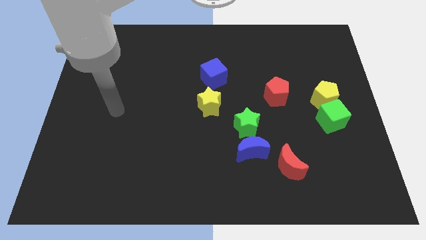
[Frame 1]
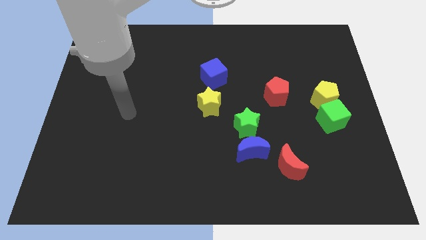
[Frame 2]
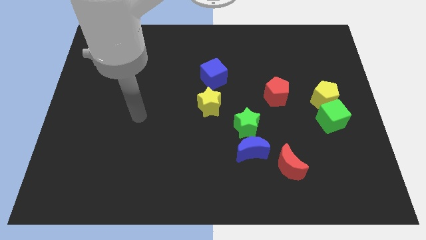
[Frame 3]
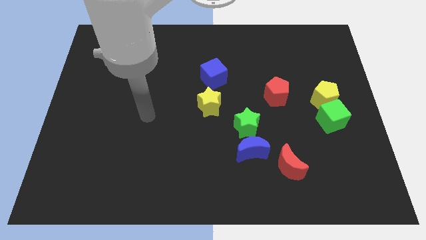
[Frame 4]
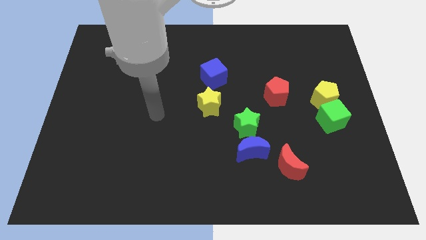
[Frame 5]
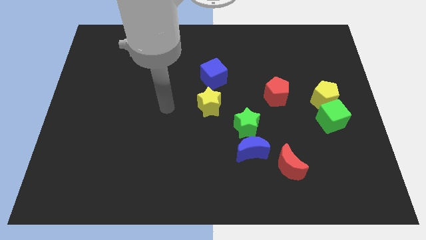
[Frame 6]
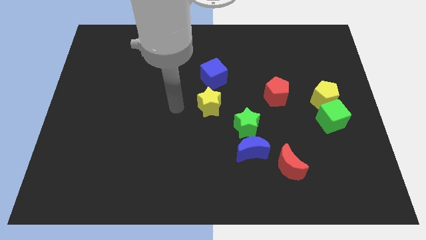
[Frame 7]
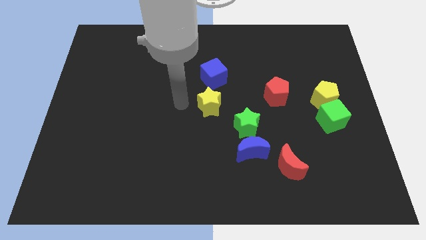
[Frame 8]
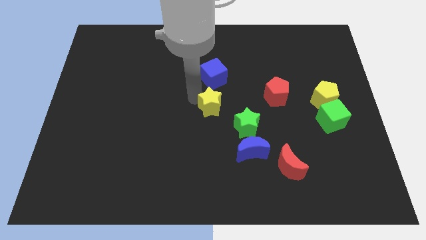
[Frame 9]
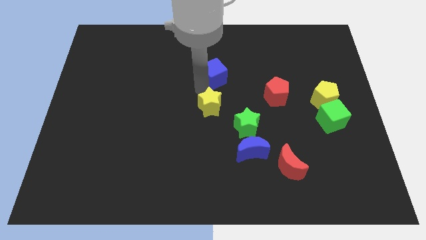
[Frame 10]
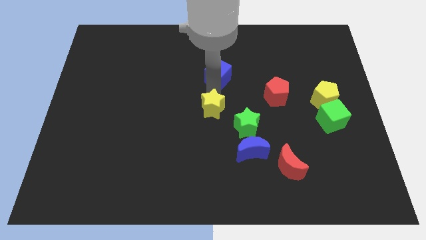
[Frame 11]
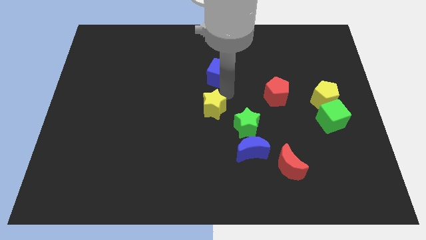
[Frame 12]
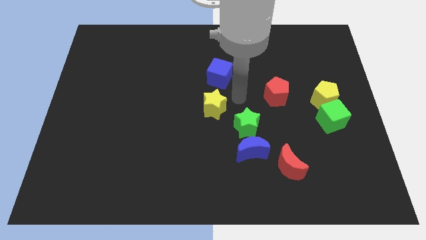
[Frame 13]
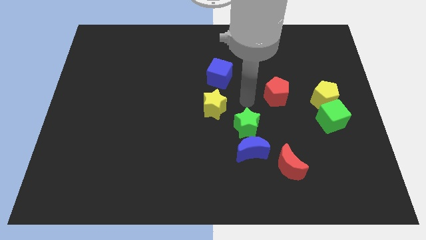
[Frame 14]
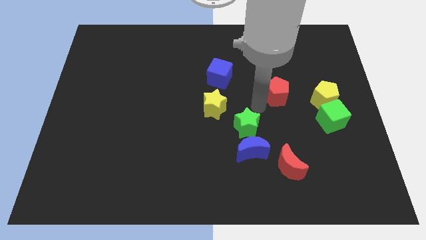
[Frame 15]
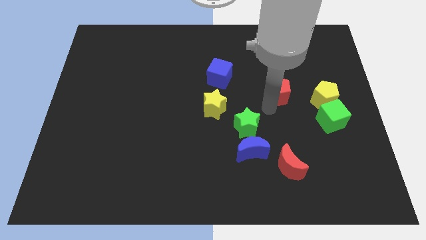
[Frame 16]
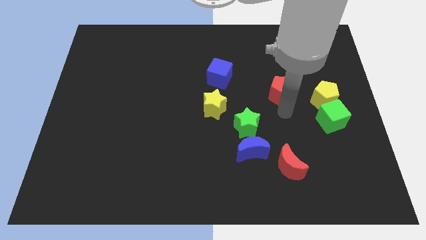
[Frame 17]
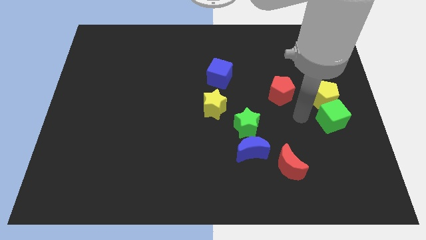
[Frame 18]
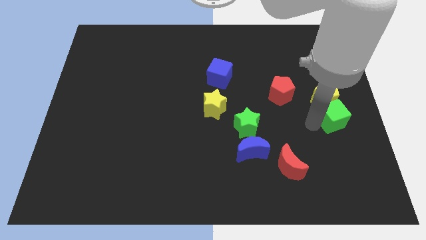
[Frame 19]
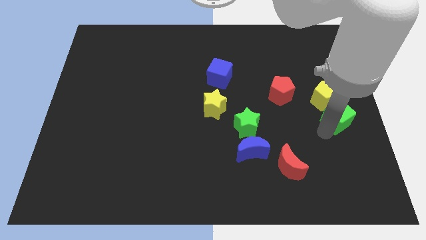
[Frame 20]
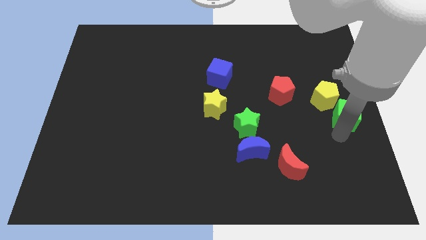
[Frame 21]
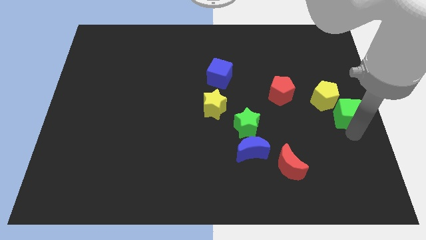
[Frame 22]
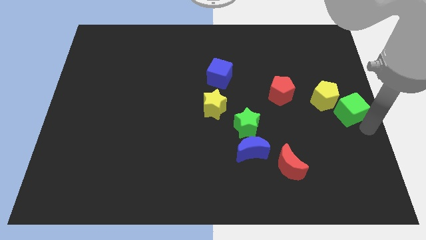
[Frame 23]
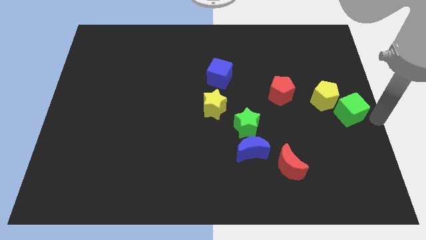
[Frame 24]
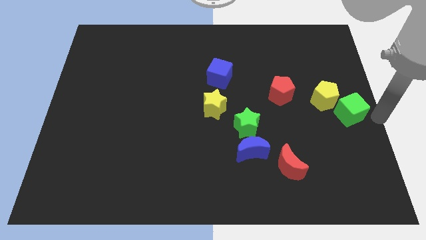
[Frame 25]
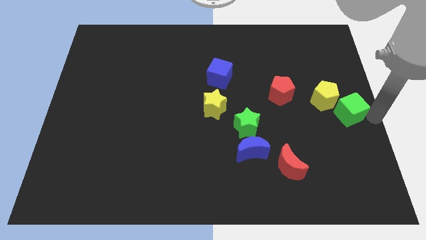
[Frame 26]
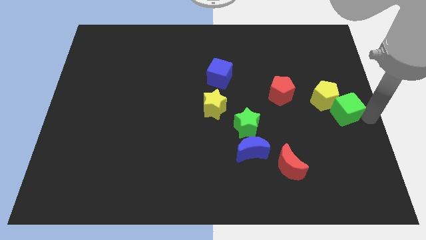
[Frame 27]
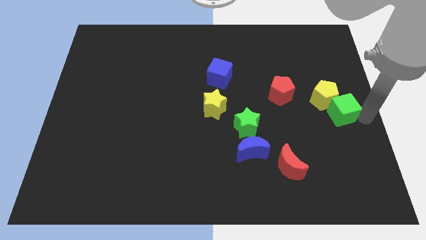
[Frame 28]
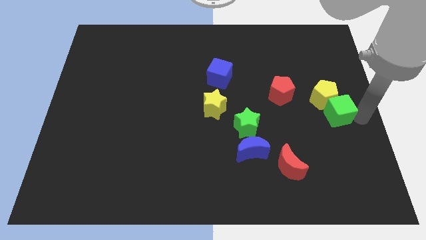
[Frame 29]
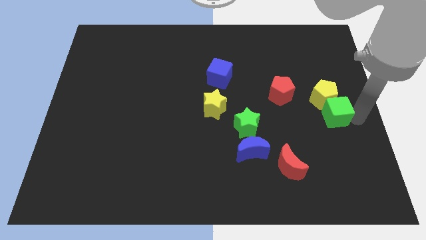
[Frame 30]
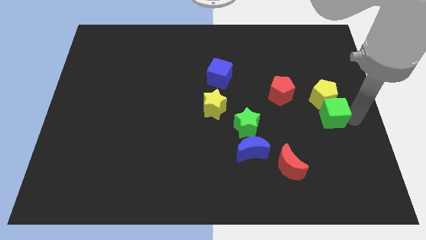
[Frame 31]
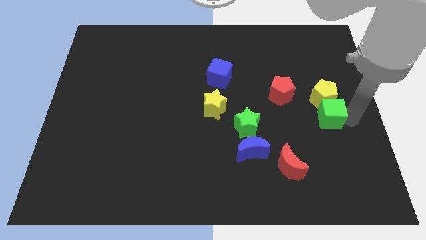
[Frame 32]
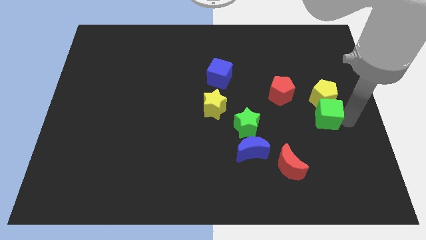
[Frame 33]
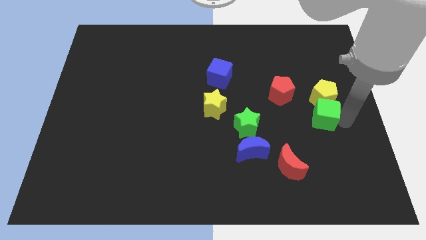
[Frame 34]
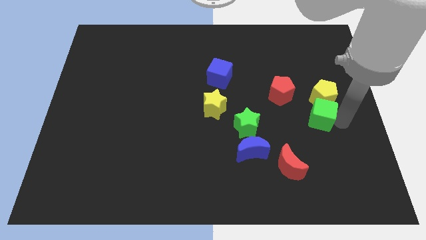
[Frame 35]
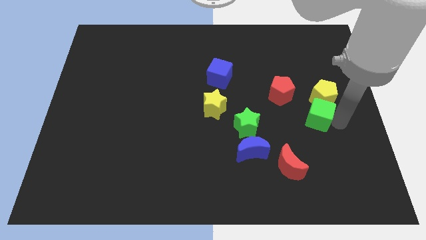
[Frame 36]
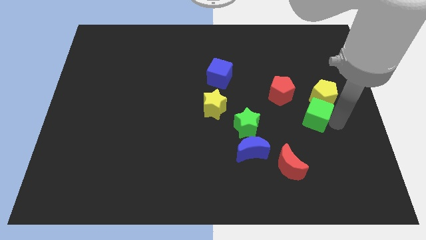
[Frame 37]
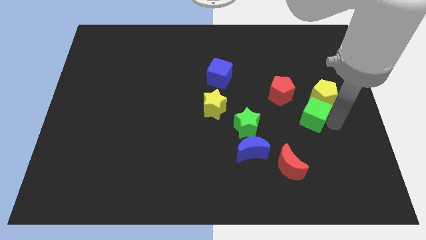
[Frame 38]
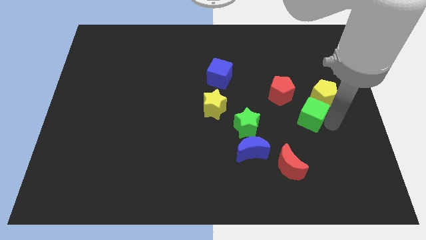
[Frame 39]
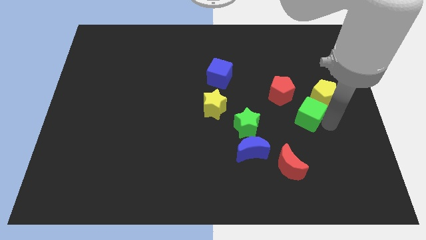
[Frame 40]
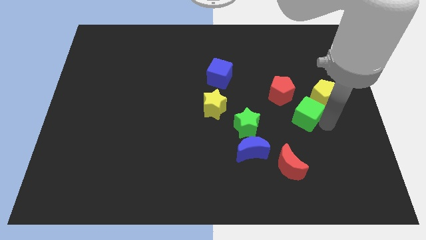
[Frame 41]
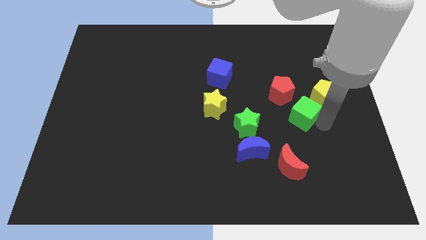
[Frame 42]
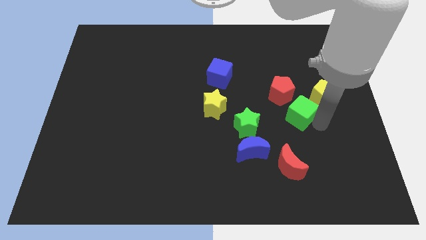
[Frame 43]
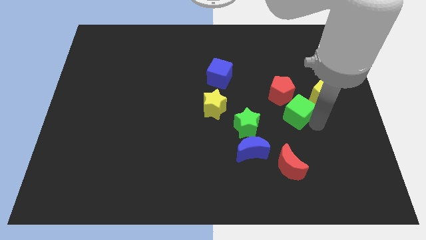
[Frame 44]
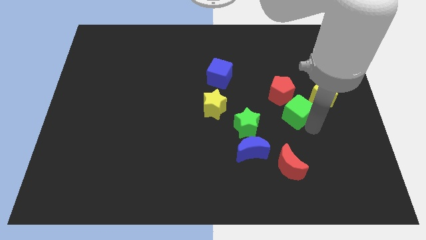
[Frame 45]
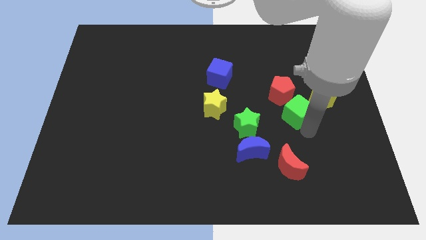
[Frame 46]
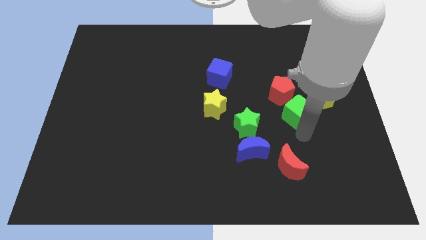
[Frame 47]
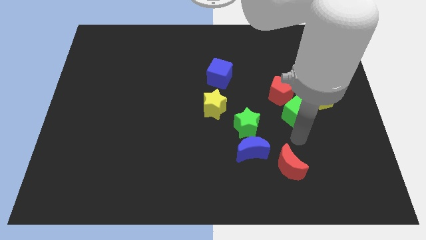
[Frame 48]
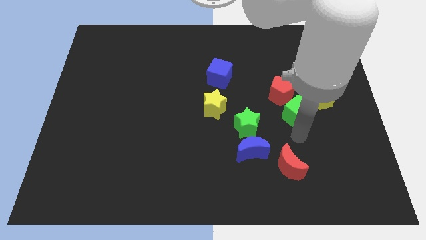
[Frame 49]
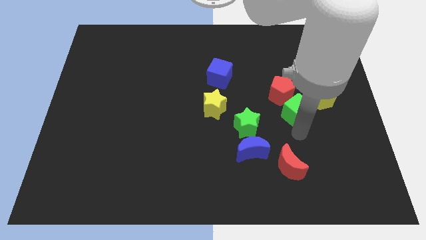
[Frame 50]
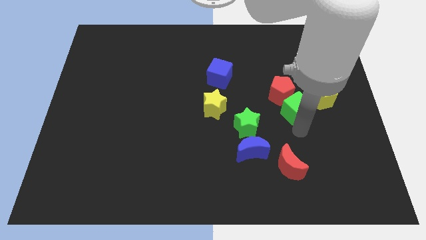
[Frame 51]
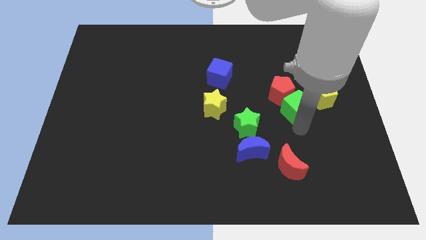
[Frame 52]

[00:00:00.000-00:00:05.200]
slide the green cube upwards and to the left diagonally slightly

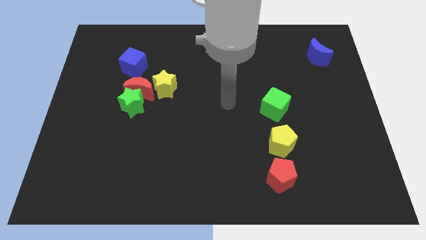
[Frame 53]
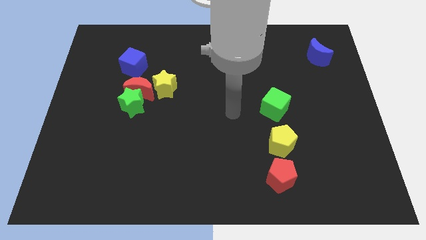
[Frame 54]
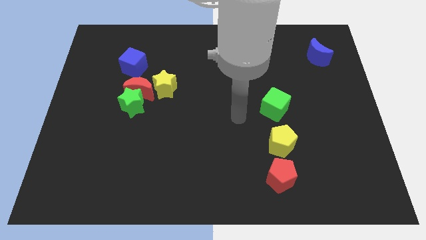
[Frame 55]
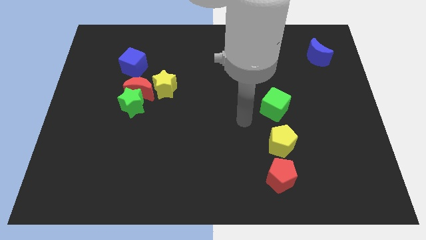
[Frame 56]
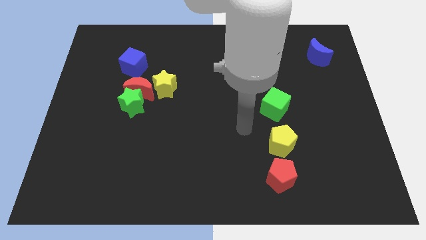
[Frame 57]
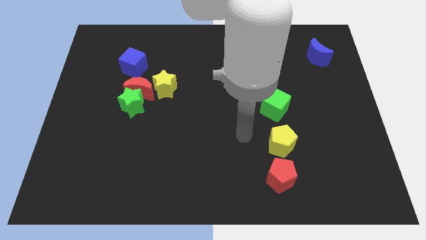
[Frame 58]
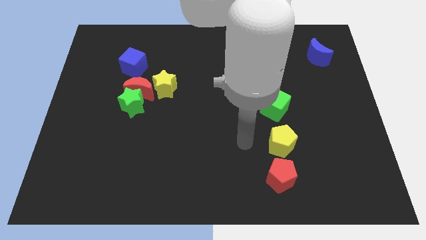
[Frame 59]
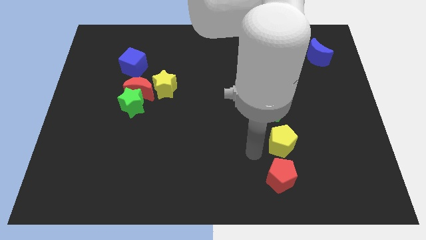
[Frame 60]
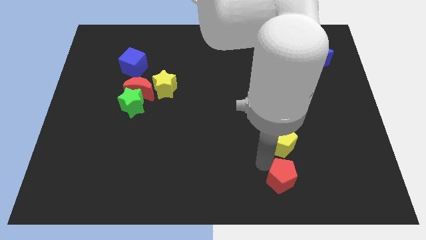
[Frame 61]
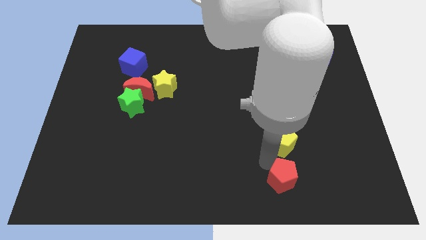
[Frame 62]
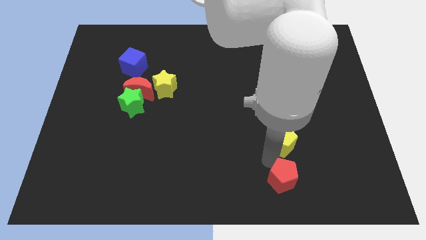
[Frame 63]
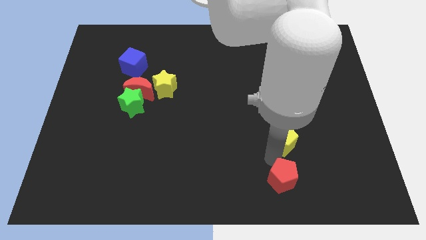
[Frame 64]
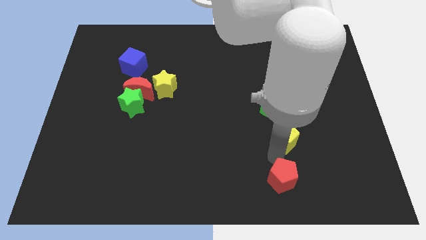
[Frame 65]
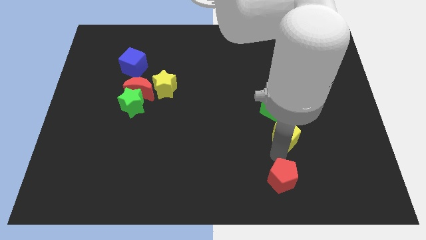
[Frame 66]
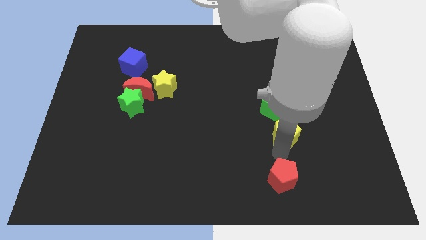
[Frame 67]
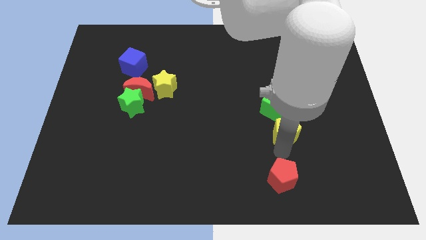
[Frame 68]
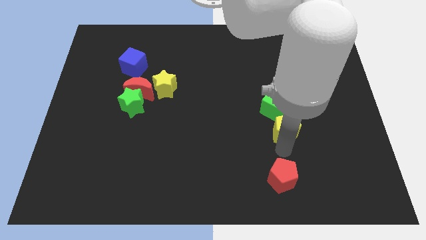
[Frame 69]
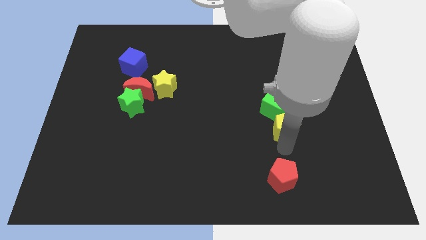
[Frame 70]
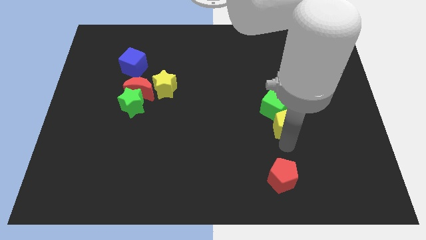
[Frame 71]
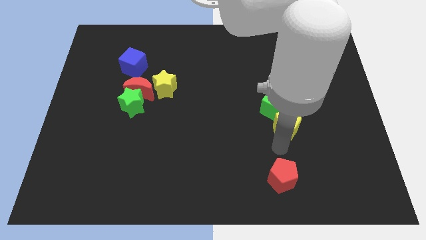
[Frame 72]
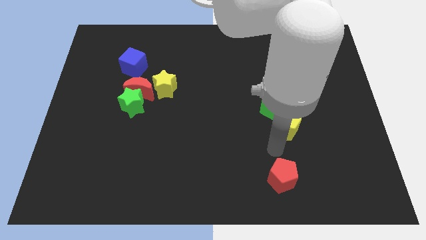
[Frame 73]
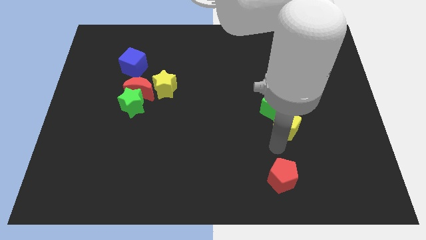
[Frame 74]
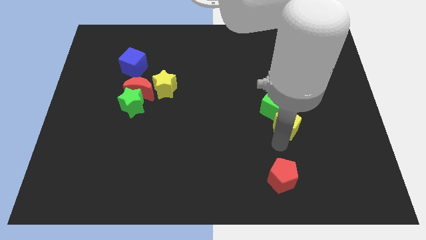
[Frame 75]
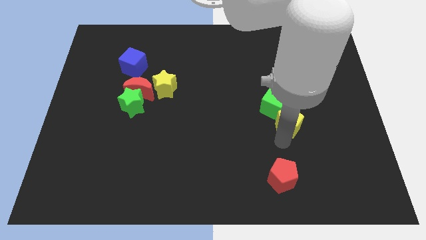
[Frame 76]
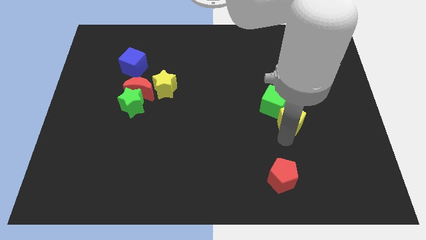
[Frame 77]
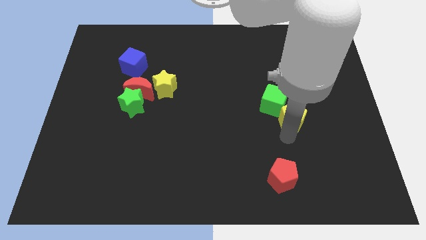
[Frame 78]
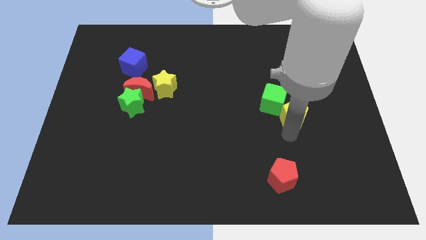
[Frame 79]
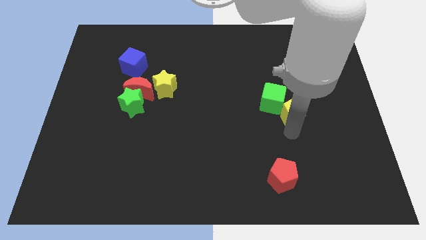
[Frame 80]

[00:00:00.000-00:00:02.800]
slide the yellow pentagon a bit up

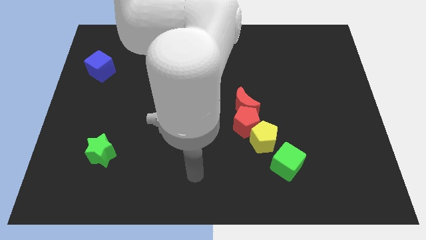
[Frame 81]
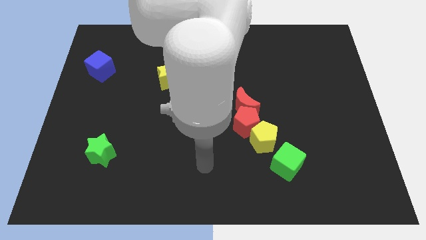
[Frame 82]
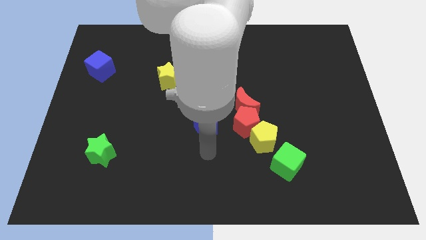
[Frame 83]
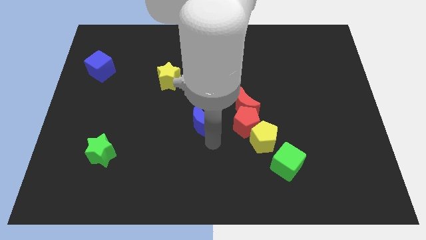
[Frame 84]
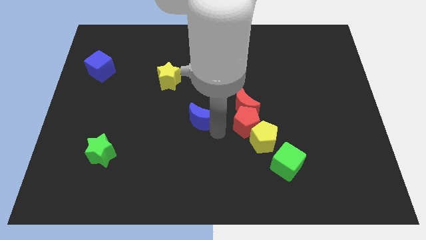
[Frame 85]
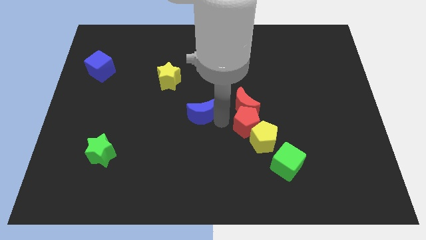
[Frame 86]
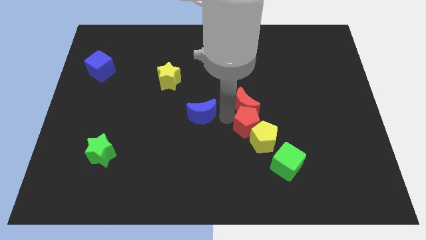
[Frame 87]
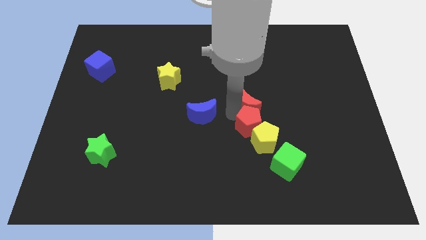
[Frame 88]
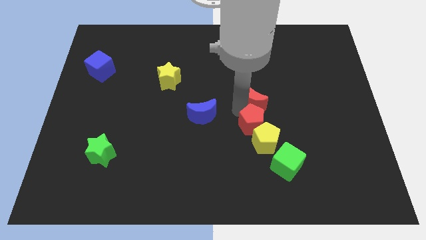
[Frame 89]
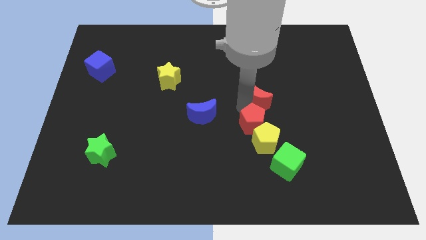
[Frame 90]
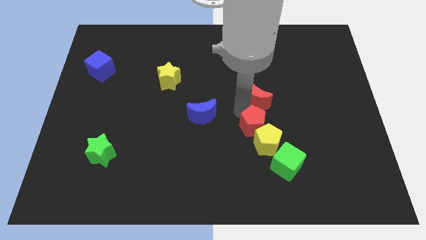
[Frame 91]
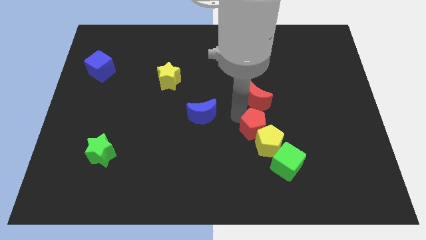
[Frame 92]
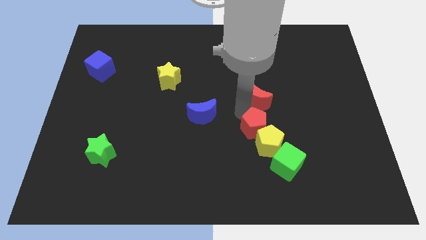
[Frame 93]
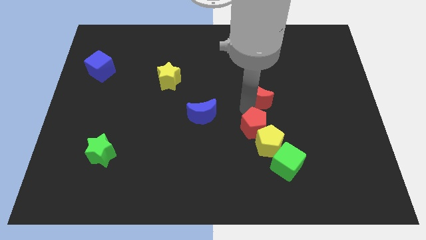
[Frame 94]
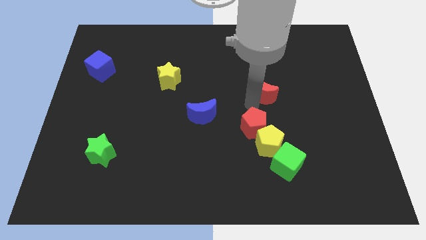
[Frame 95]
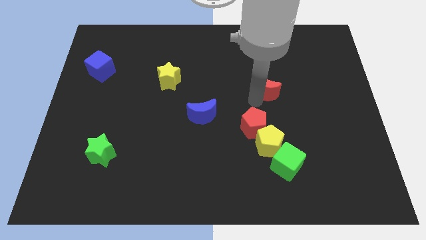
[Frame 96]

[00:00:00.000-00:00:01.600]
slightly push the red moon diagonally upwards and right
